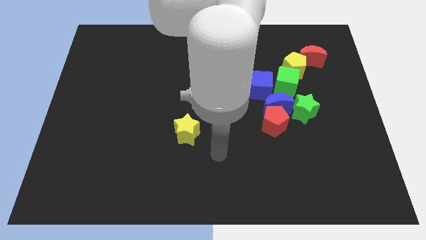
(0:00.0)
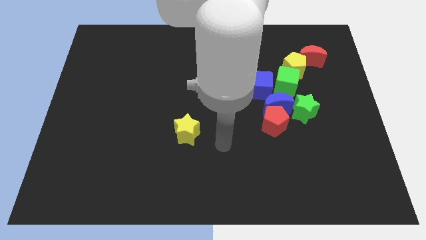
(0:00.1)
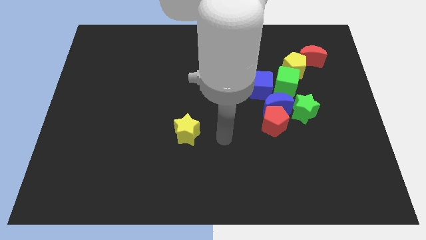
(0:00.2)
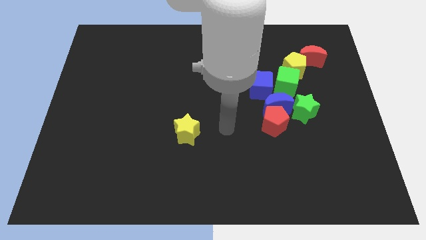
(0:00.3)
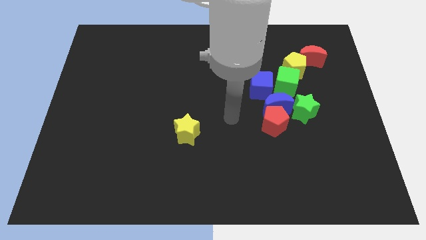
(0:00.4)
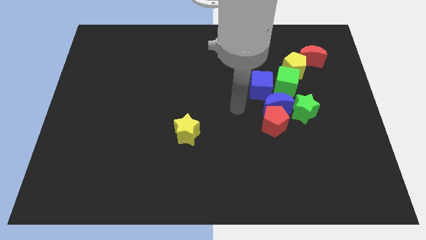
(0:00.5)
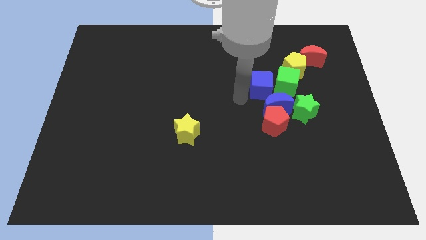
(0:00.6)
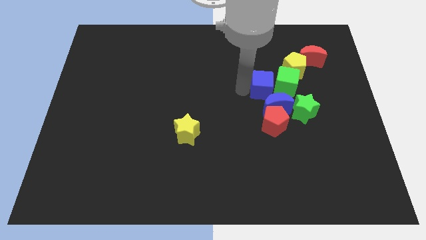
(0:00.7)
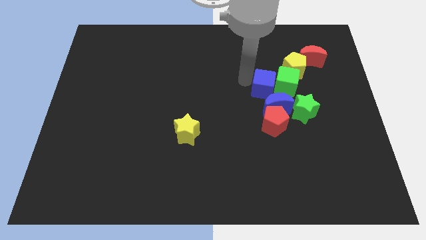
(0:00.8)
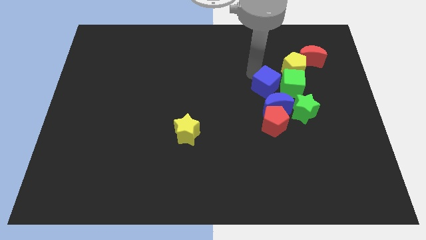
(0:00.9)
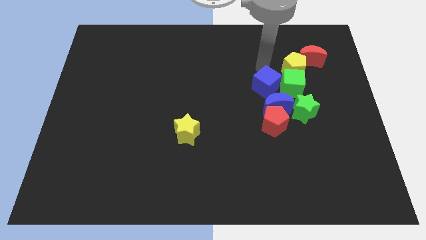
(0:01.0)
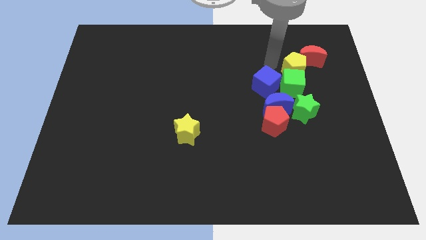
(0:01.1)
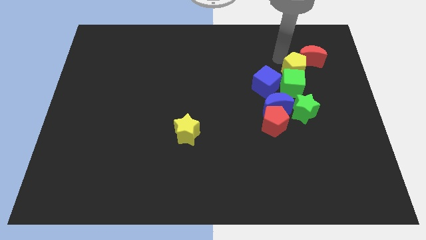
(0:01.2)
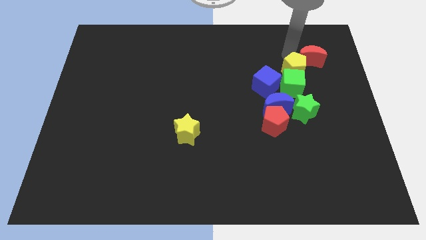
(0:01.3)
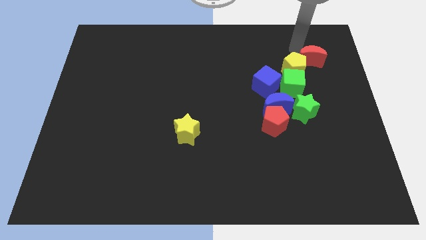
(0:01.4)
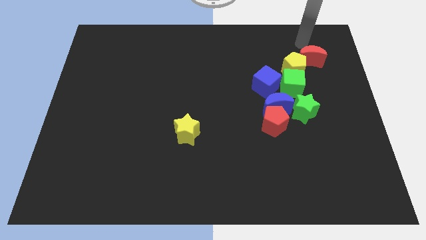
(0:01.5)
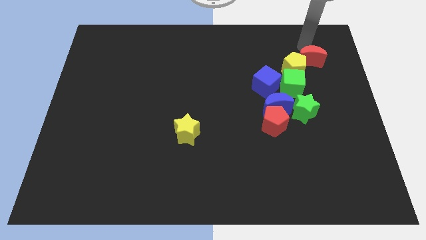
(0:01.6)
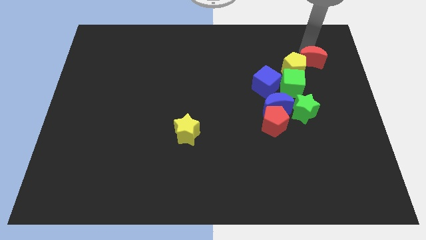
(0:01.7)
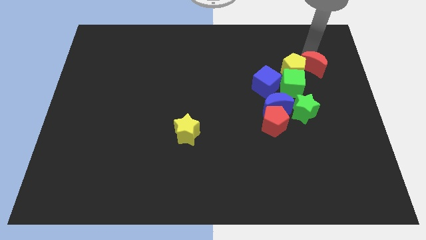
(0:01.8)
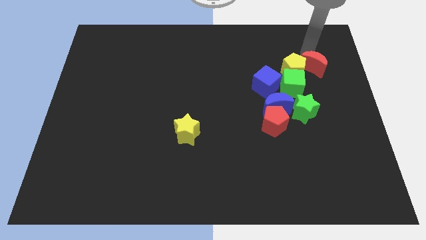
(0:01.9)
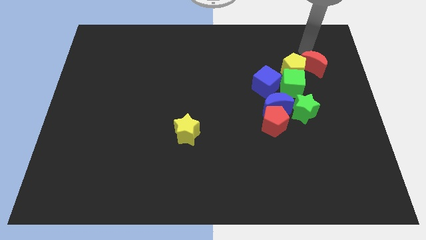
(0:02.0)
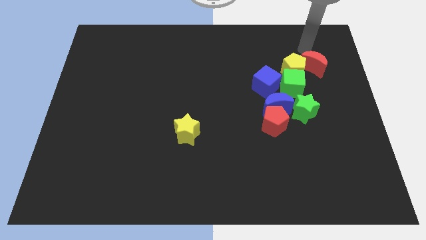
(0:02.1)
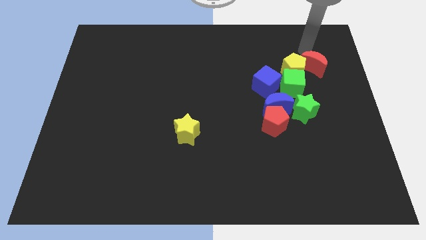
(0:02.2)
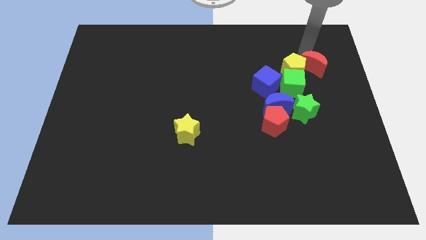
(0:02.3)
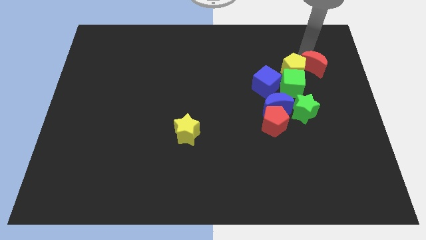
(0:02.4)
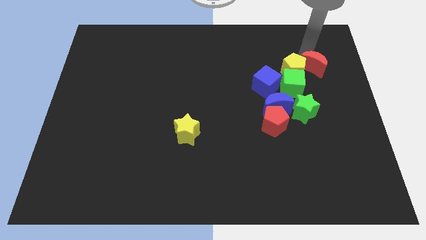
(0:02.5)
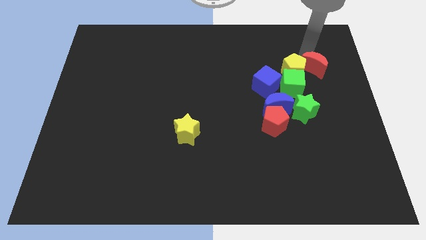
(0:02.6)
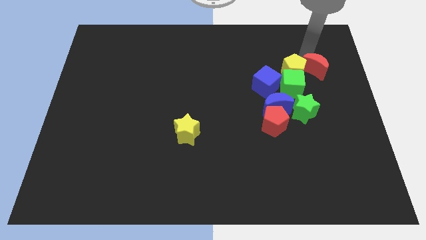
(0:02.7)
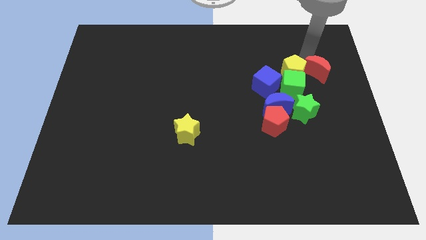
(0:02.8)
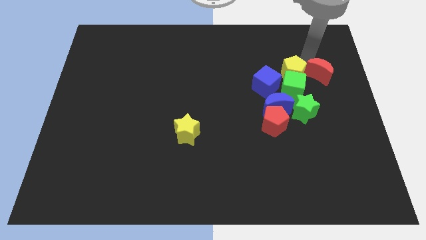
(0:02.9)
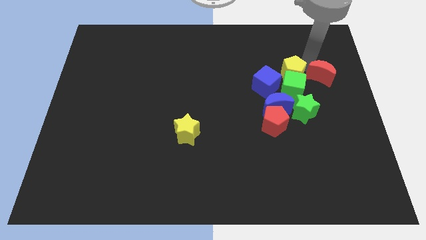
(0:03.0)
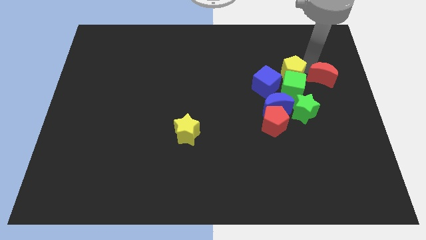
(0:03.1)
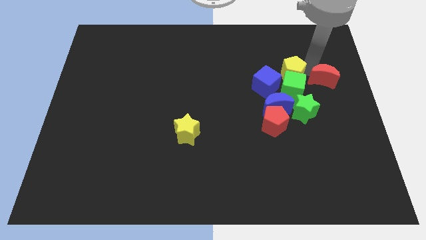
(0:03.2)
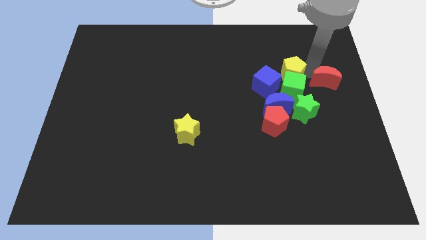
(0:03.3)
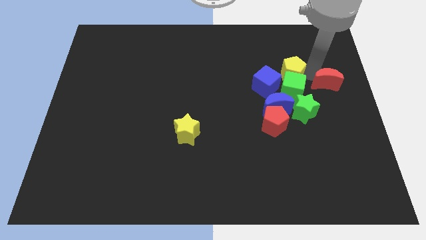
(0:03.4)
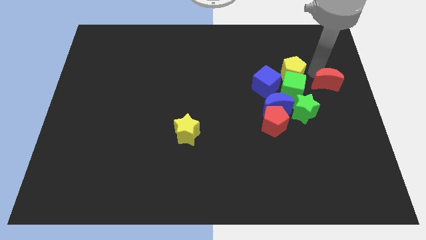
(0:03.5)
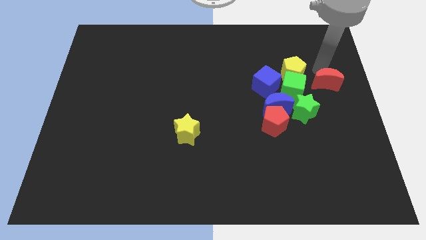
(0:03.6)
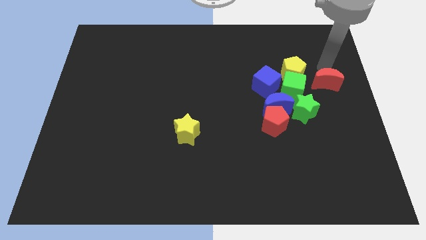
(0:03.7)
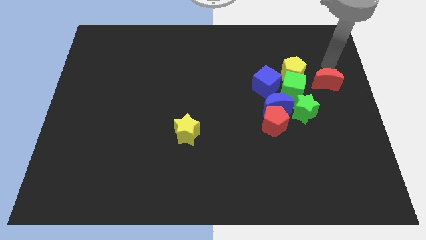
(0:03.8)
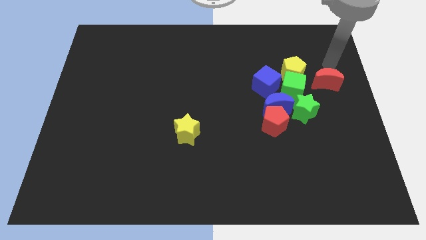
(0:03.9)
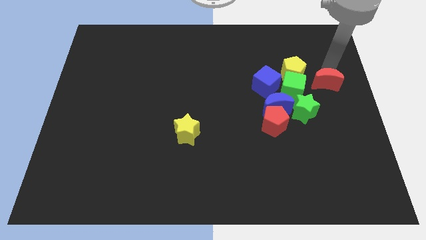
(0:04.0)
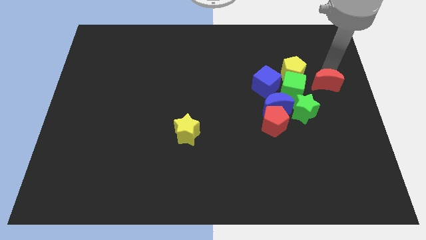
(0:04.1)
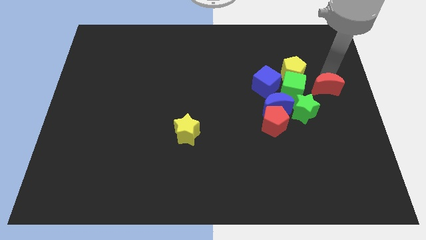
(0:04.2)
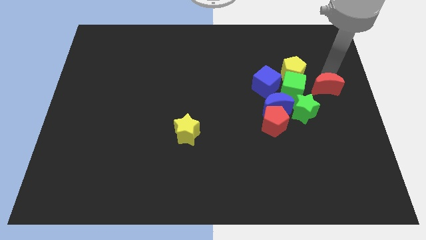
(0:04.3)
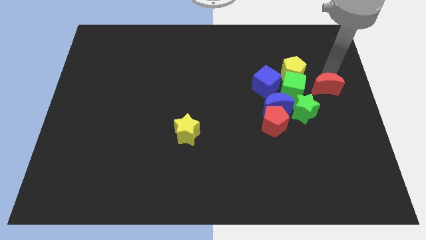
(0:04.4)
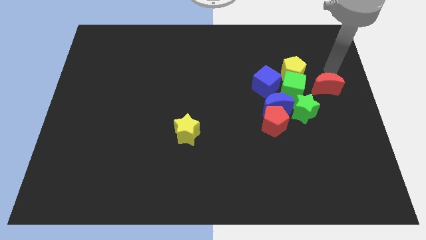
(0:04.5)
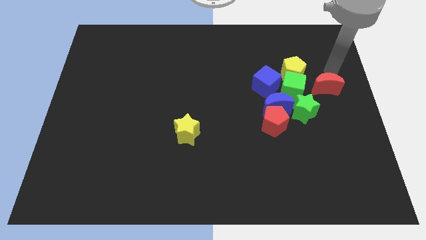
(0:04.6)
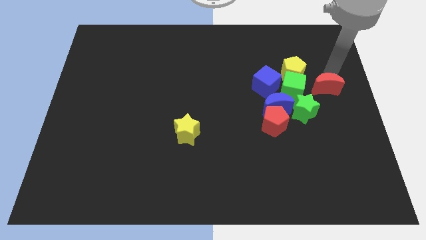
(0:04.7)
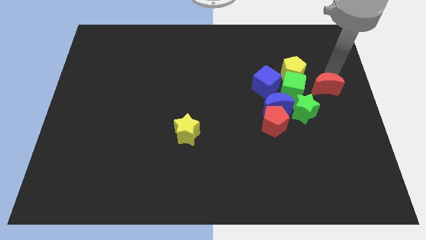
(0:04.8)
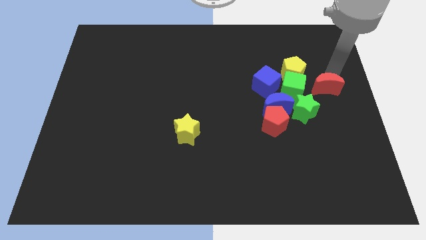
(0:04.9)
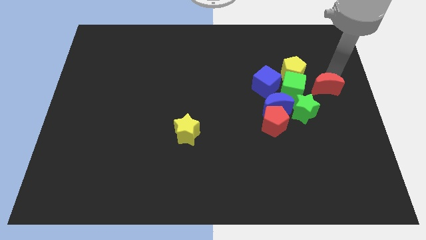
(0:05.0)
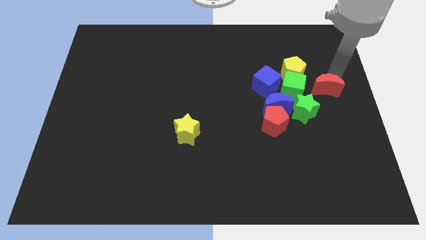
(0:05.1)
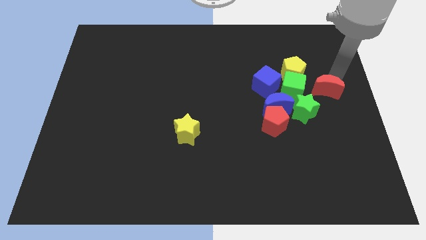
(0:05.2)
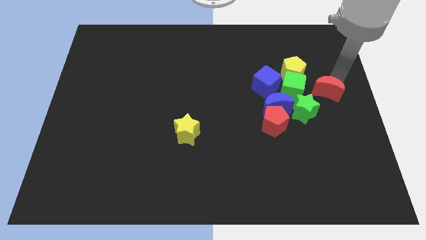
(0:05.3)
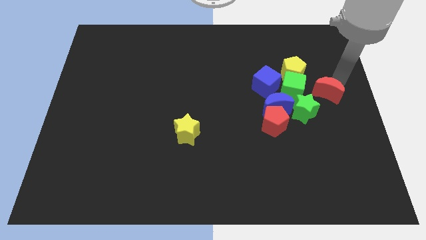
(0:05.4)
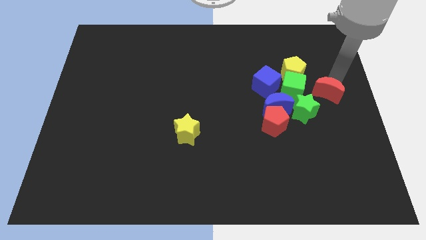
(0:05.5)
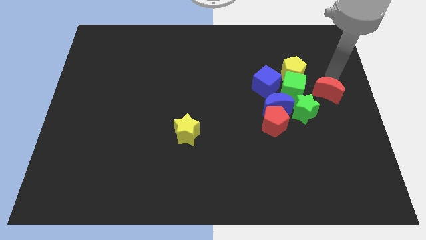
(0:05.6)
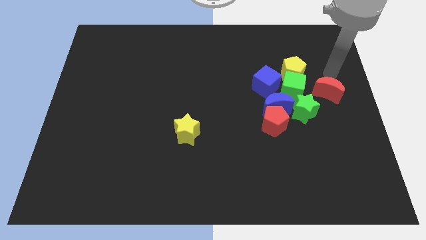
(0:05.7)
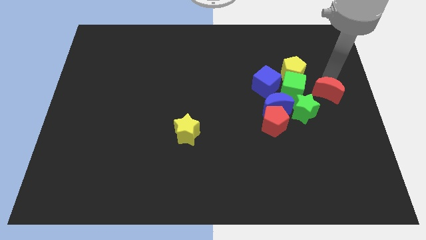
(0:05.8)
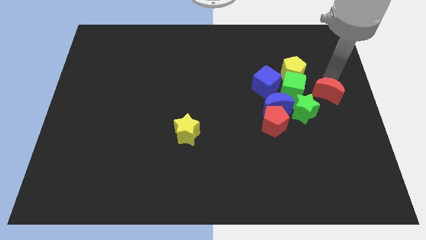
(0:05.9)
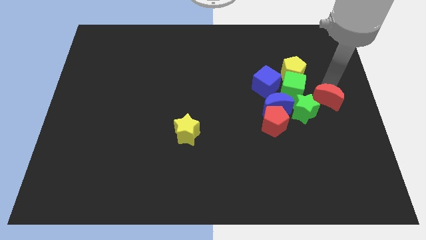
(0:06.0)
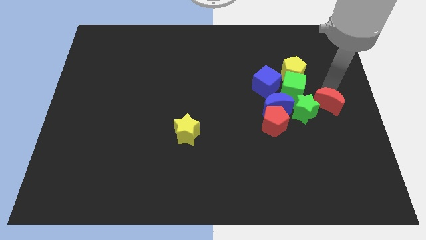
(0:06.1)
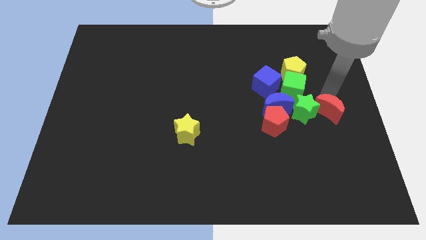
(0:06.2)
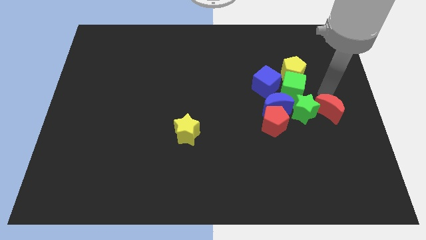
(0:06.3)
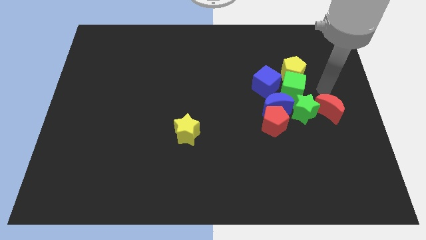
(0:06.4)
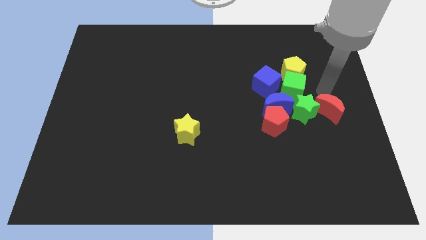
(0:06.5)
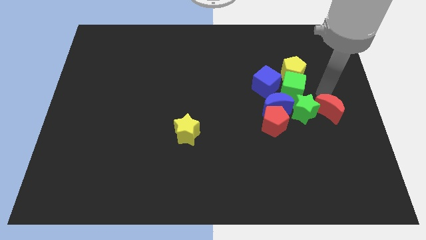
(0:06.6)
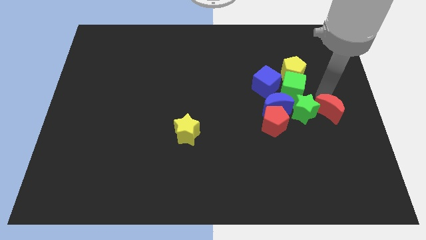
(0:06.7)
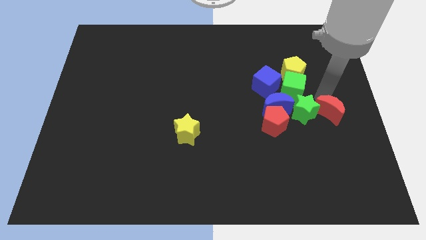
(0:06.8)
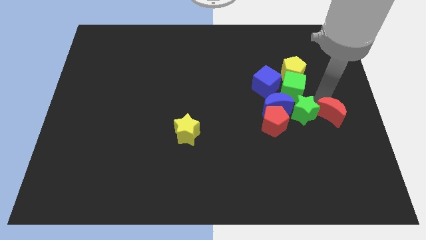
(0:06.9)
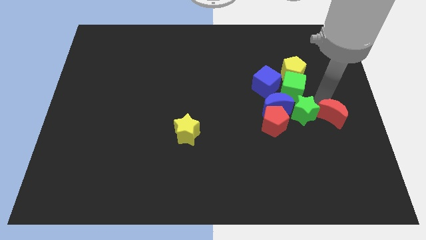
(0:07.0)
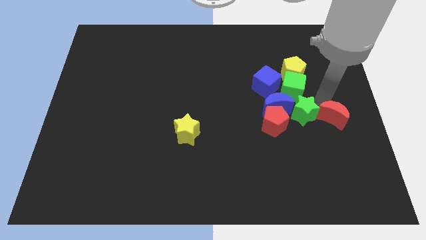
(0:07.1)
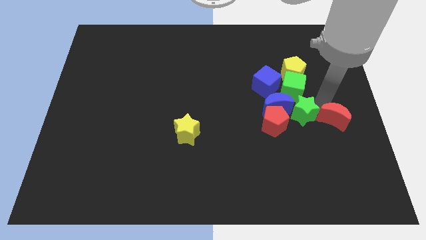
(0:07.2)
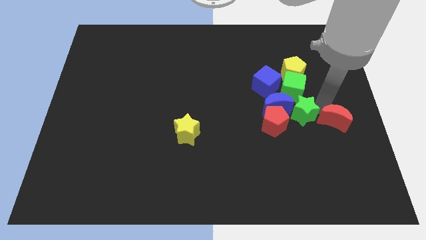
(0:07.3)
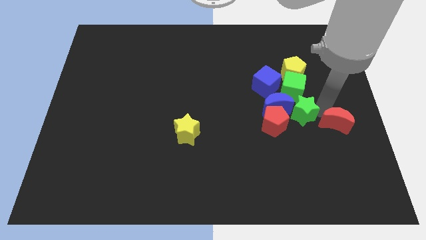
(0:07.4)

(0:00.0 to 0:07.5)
move the red moon down

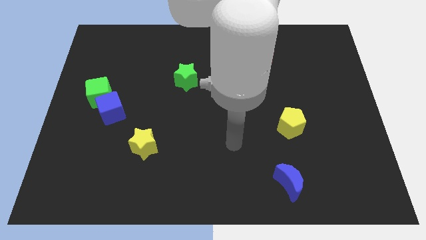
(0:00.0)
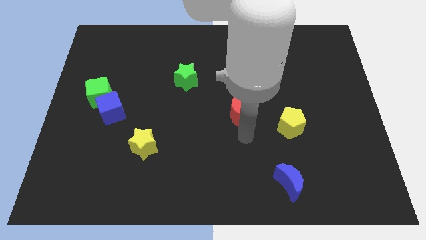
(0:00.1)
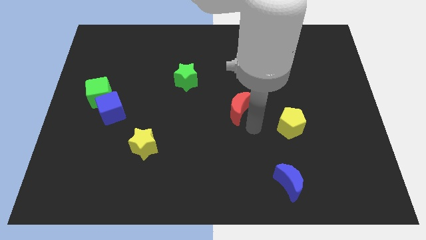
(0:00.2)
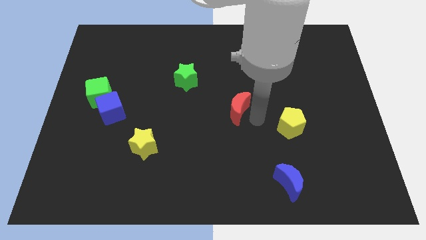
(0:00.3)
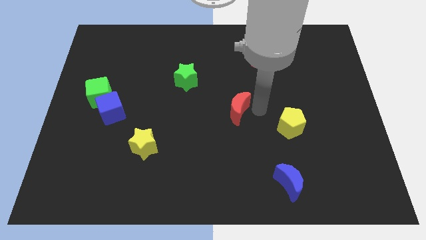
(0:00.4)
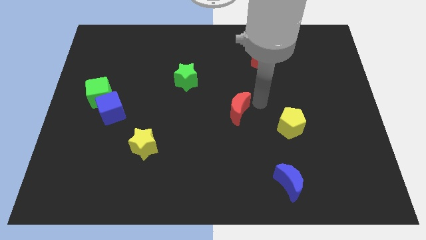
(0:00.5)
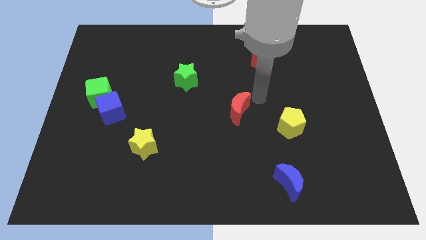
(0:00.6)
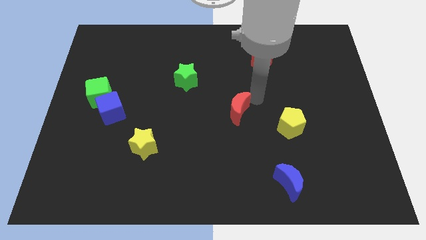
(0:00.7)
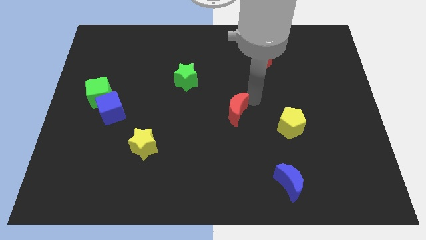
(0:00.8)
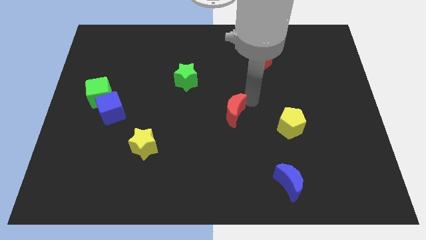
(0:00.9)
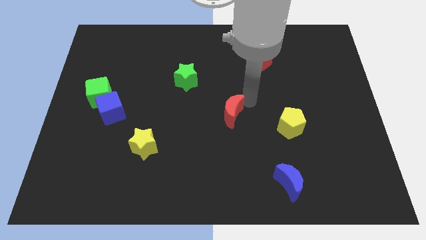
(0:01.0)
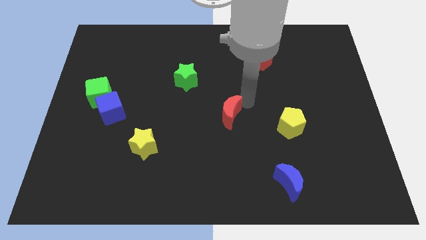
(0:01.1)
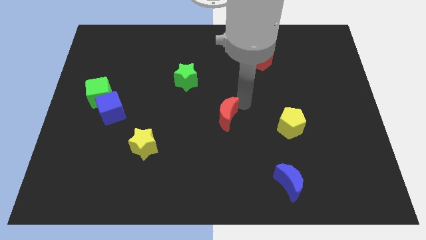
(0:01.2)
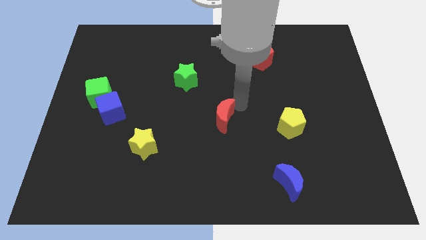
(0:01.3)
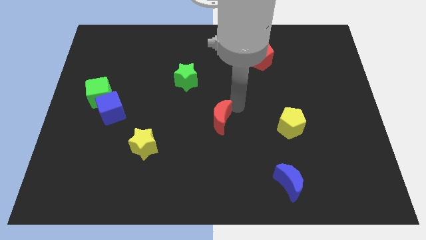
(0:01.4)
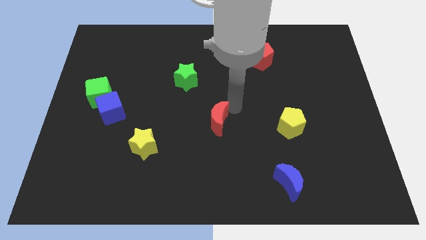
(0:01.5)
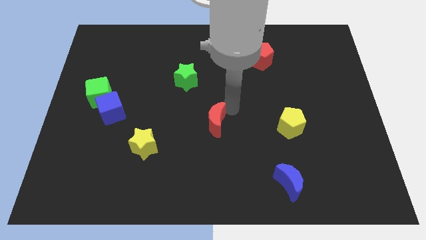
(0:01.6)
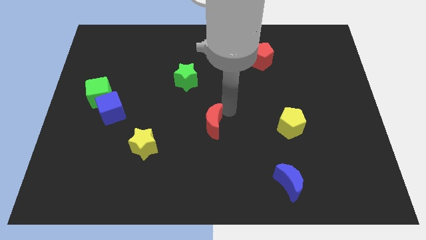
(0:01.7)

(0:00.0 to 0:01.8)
slightly push the red moon down and then to the left
